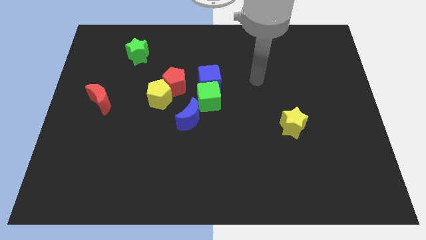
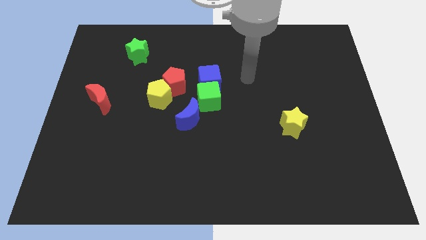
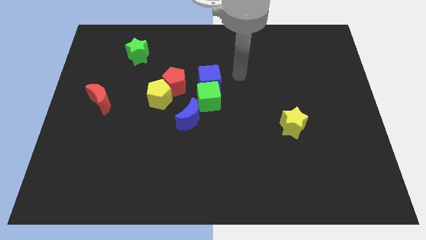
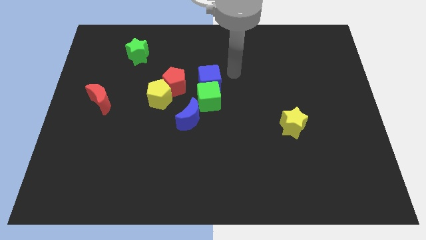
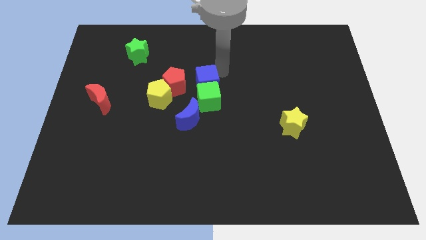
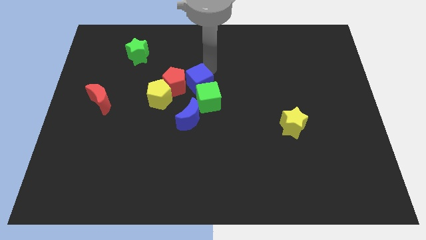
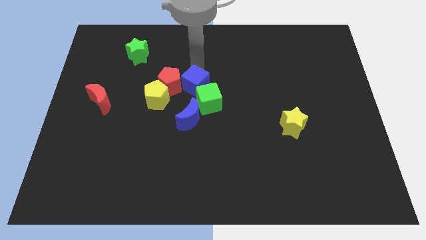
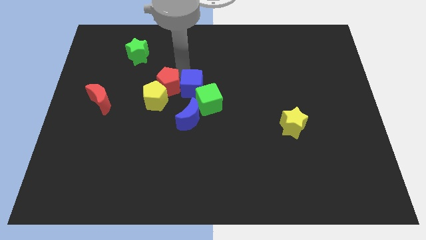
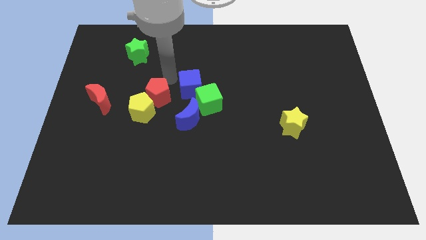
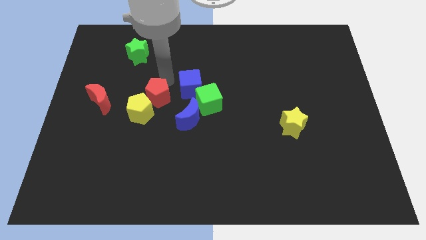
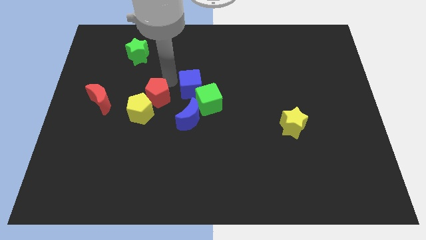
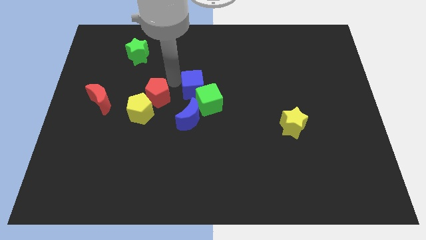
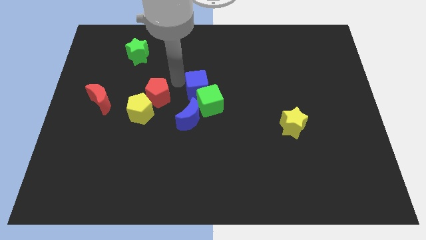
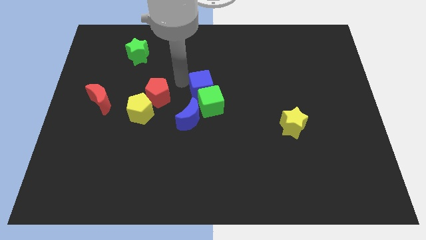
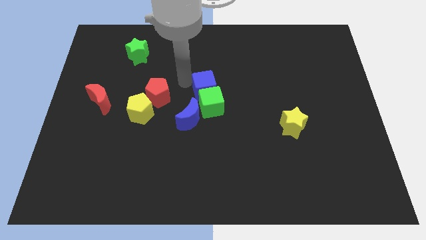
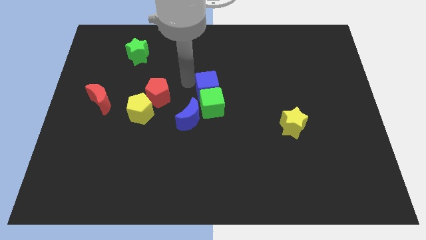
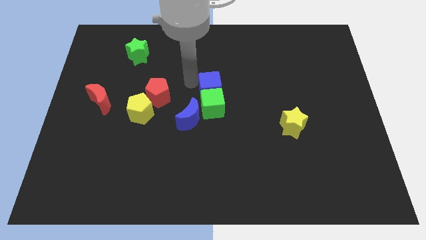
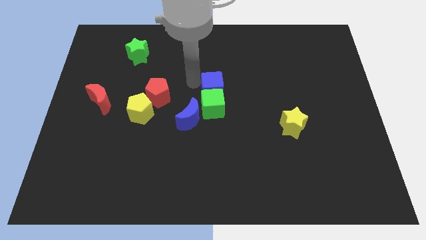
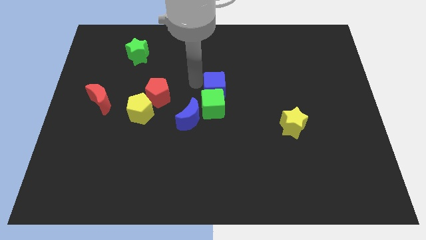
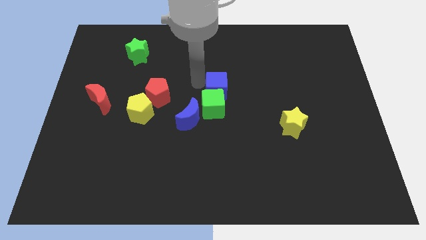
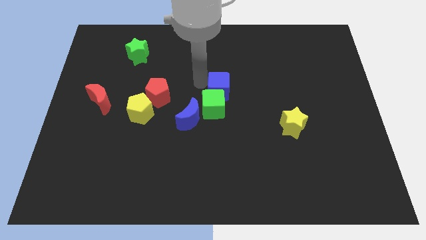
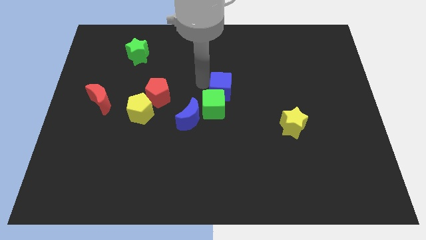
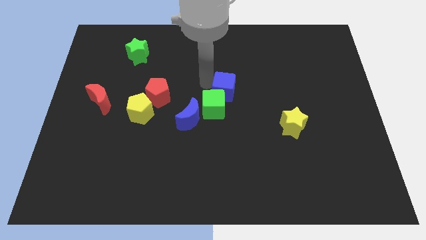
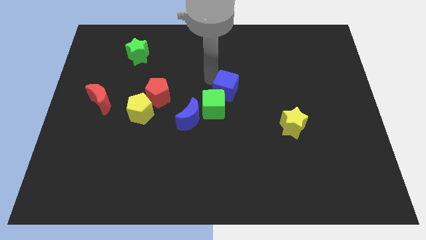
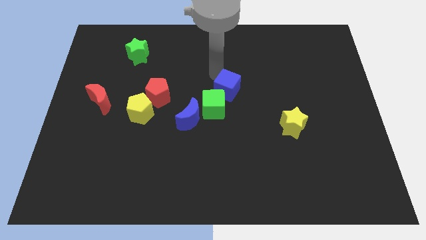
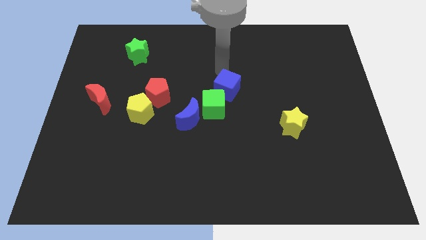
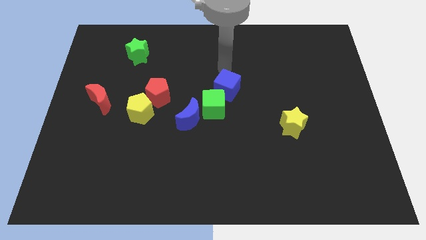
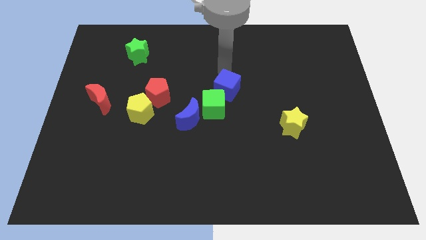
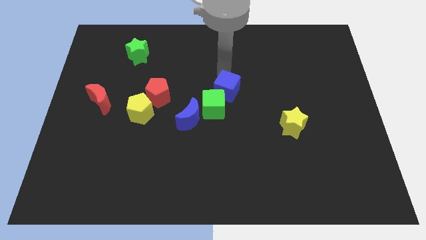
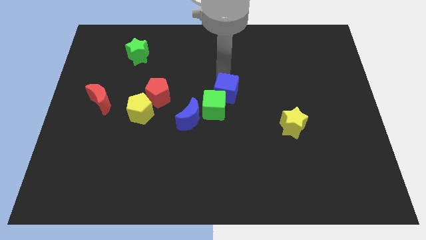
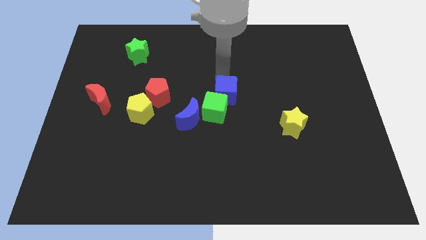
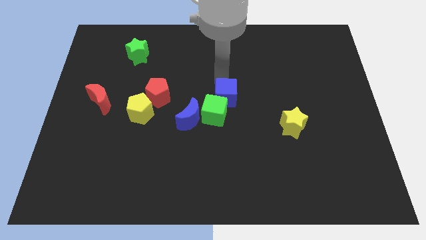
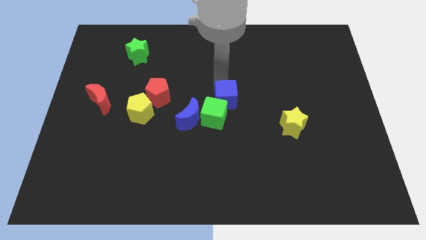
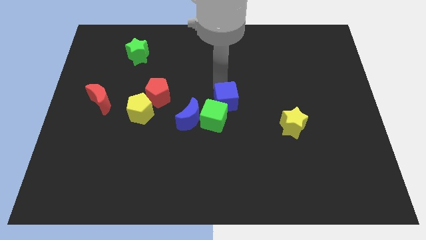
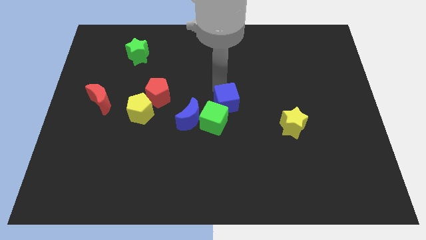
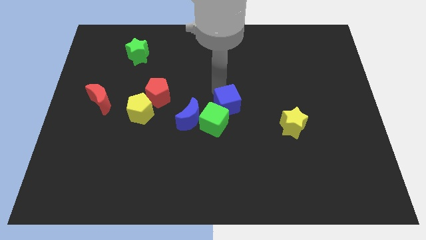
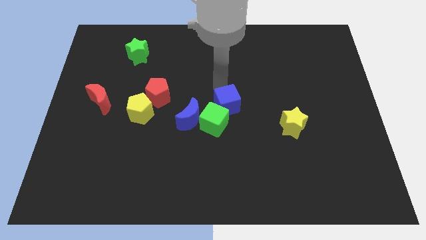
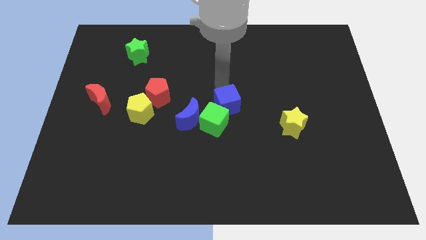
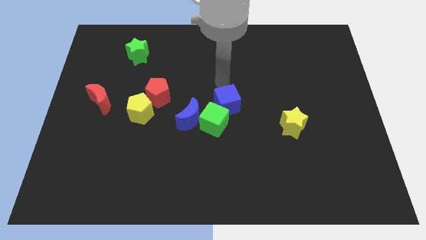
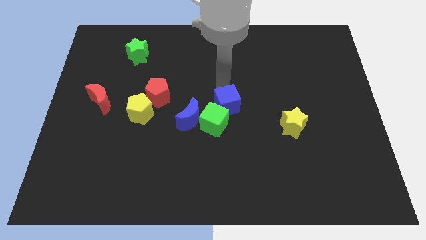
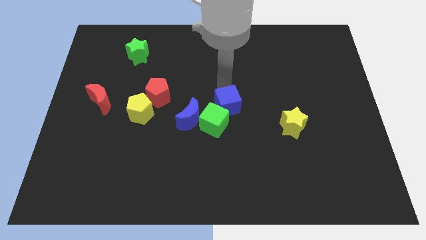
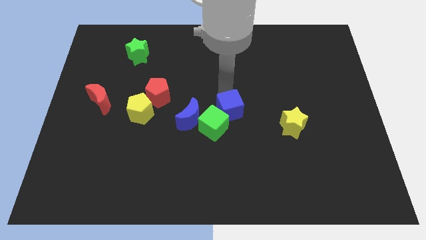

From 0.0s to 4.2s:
slide the blue cube down a little

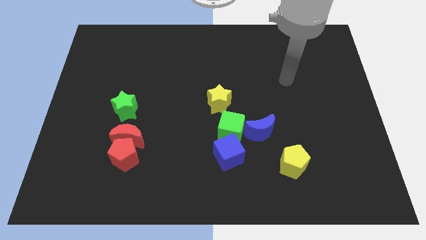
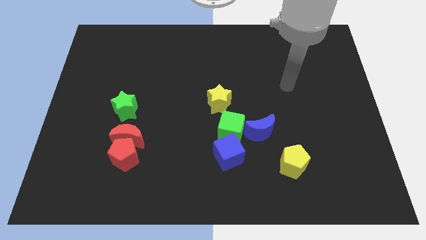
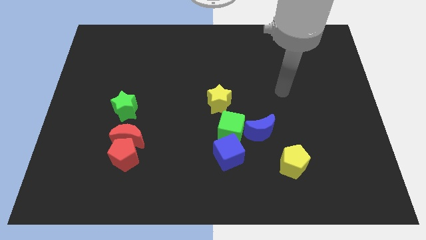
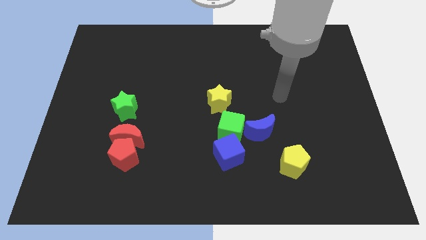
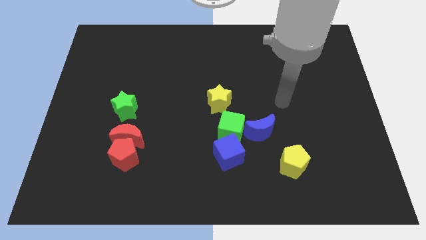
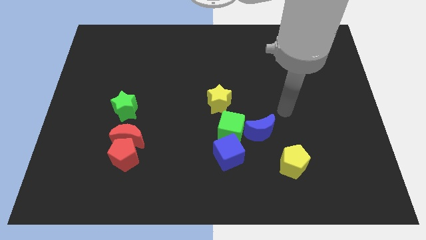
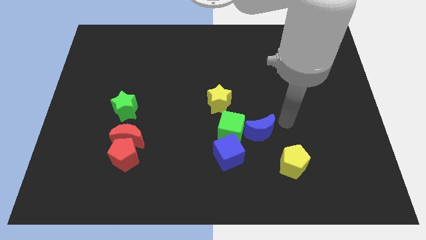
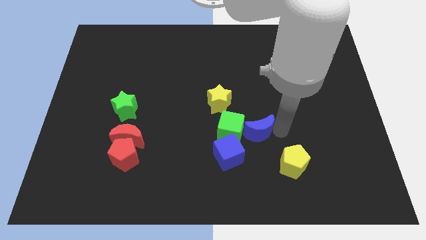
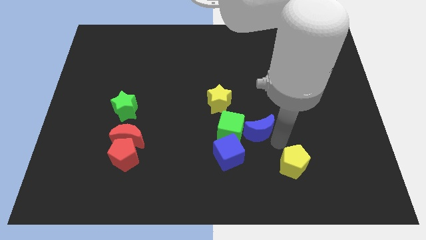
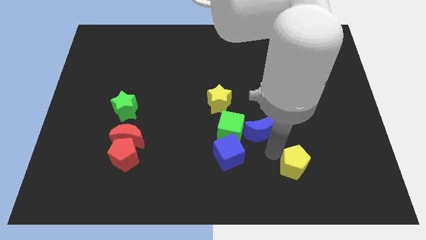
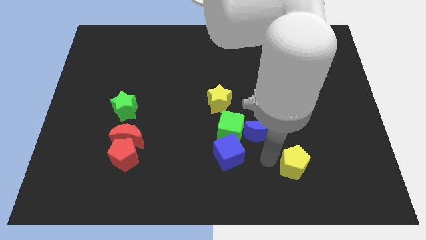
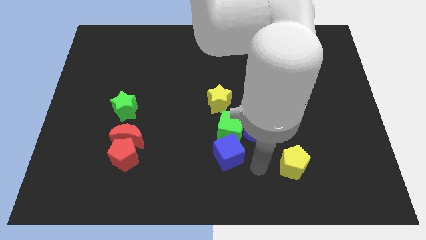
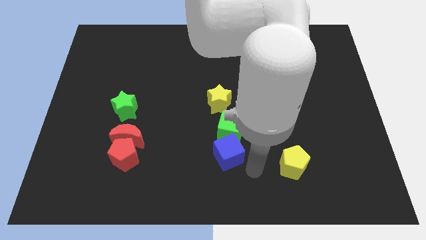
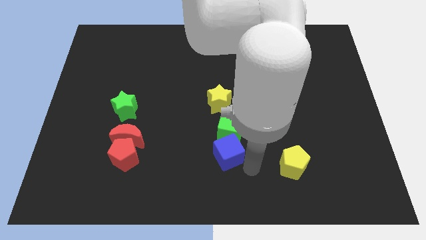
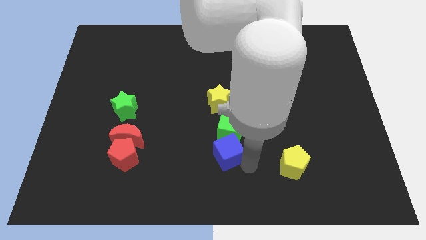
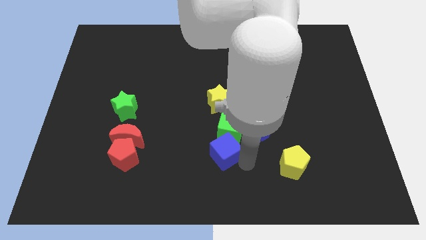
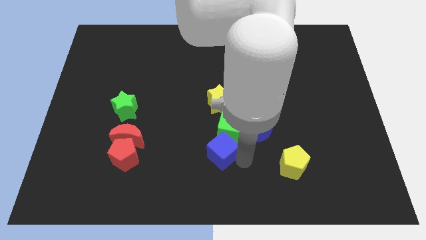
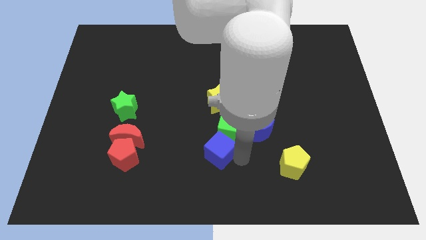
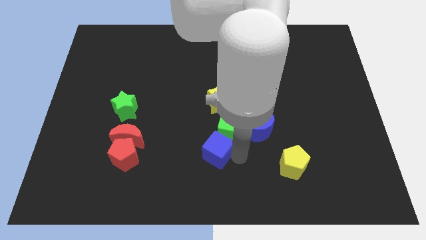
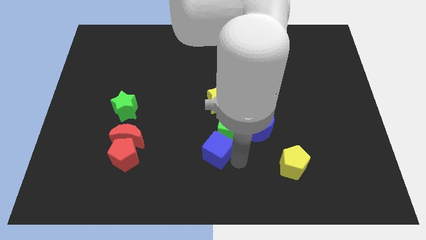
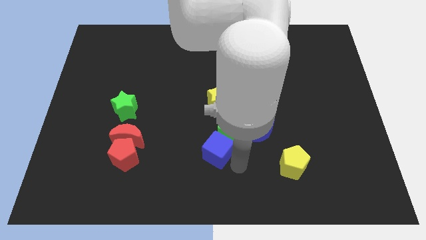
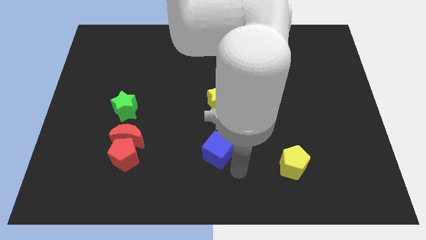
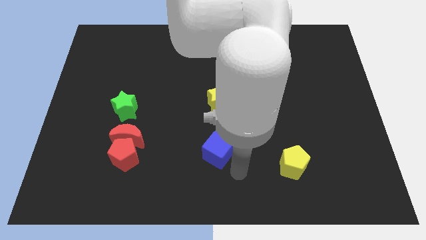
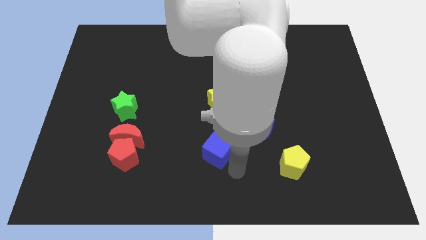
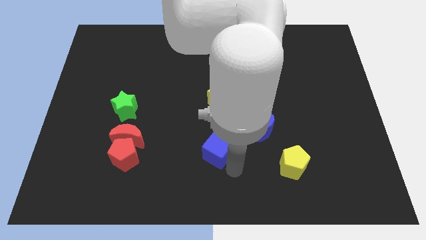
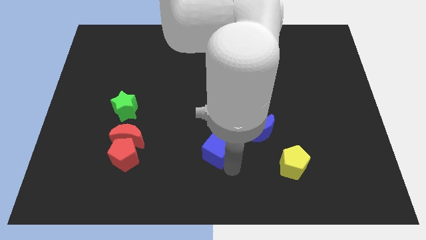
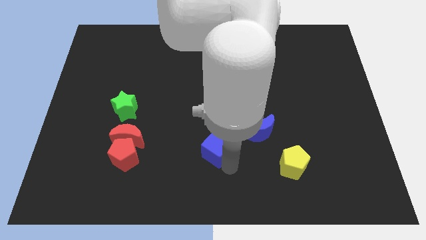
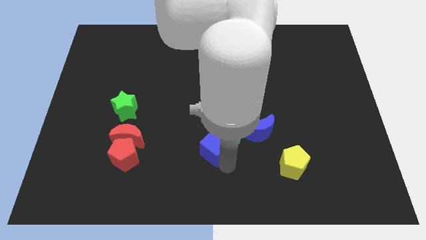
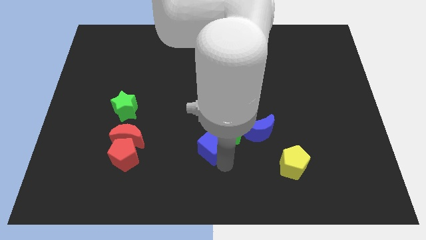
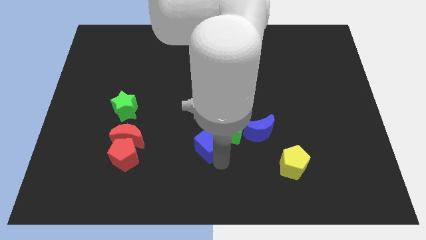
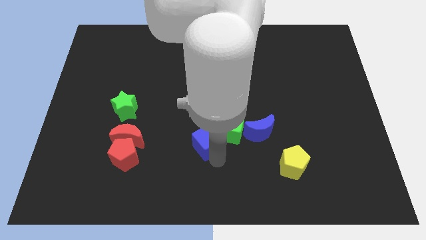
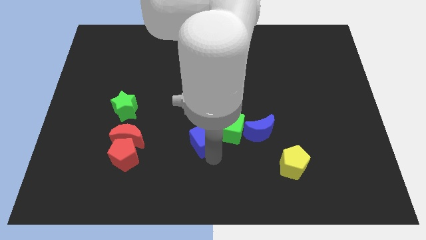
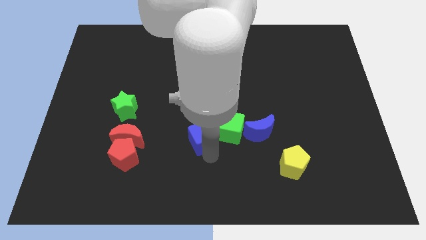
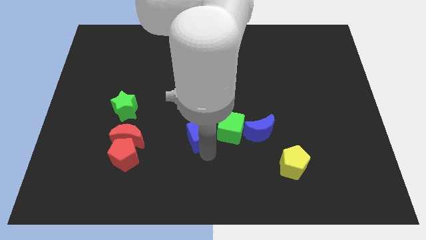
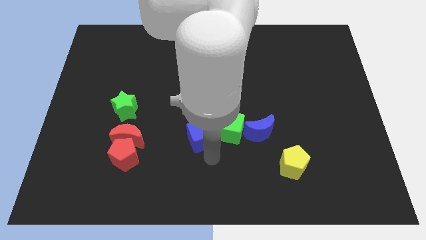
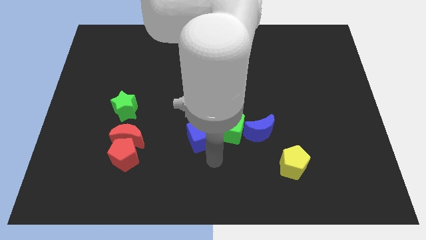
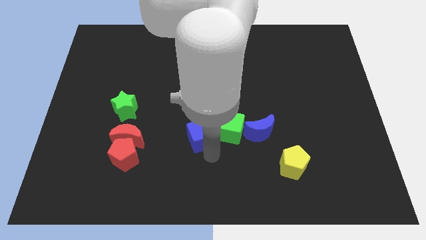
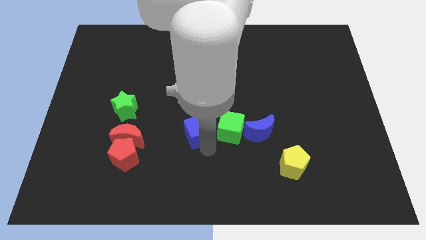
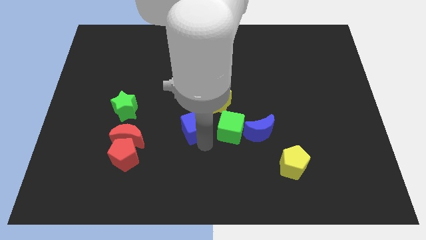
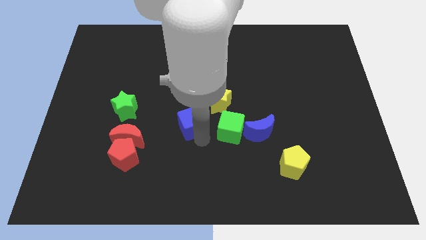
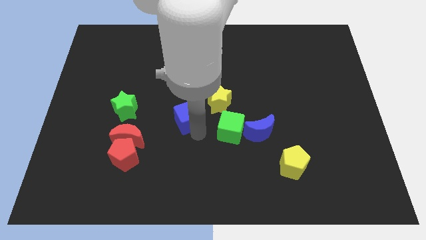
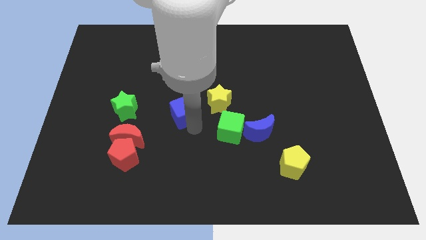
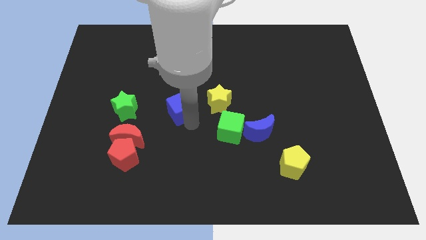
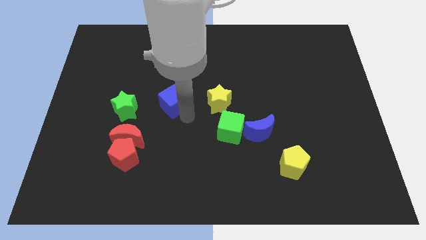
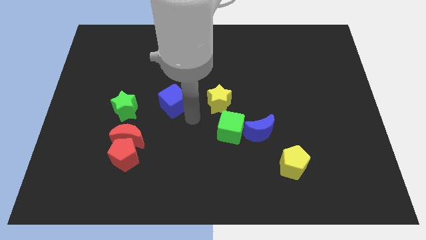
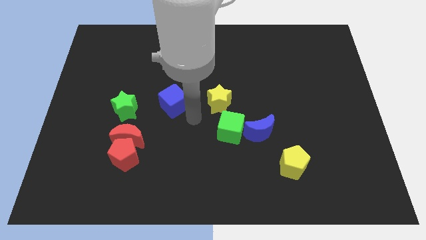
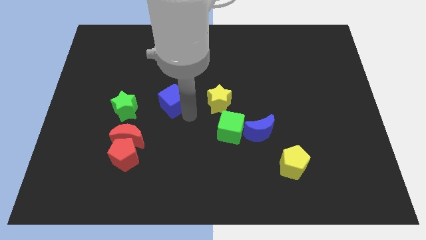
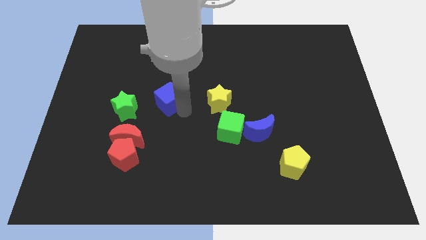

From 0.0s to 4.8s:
slide the blue cube up and left diagonally
